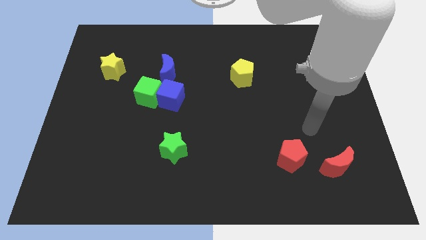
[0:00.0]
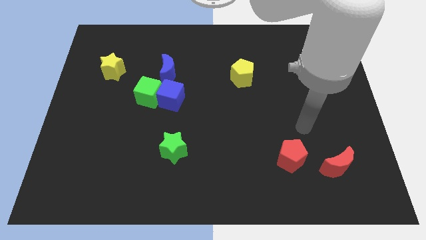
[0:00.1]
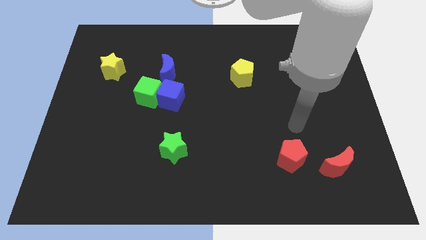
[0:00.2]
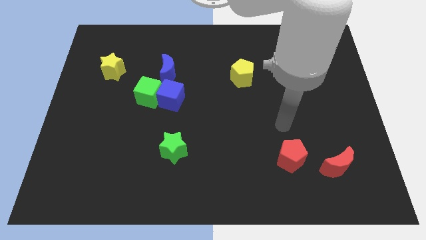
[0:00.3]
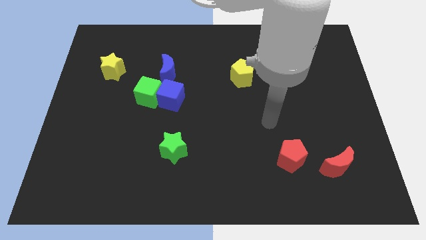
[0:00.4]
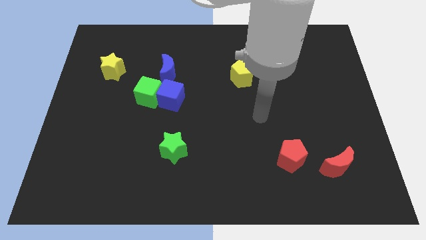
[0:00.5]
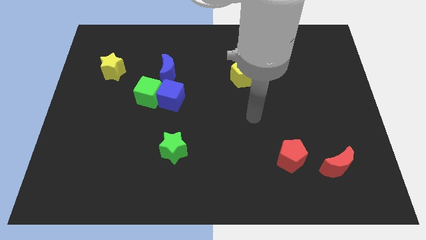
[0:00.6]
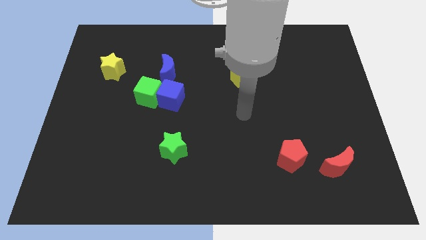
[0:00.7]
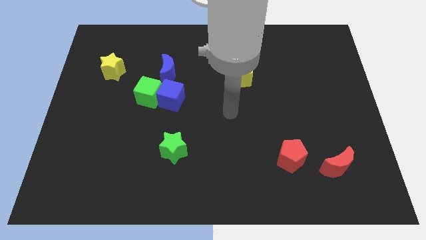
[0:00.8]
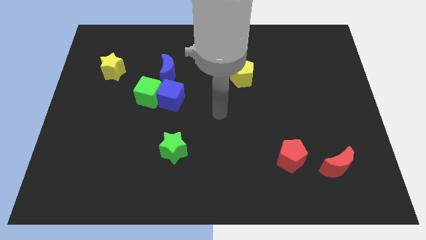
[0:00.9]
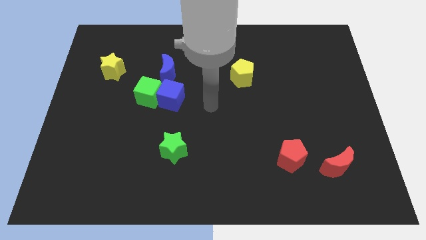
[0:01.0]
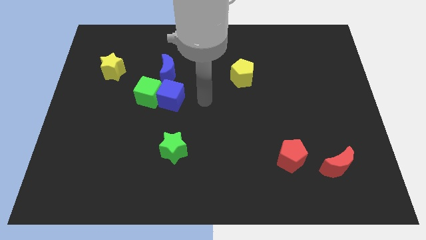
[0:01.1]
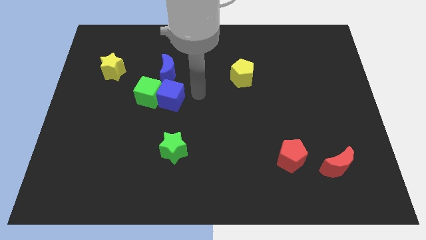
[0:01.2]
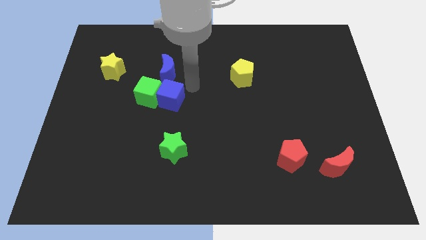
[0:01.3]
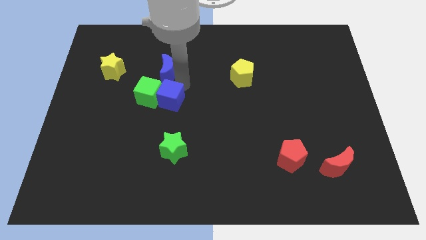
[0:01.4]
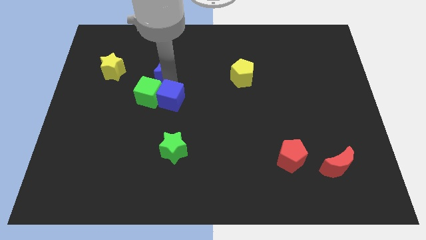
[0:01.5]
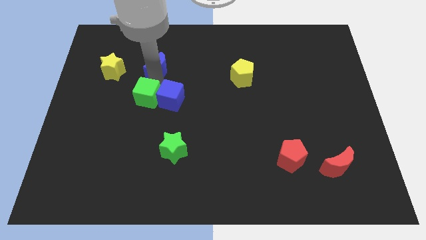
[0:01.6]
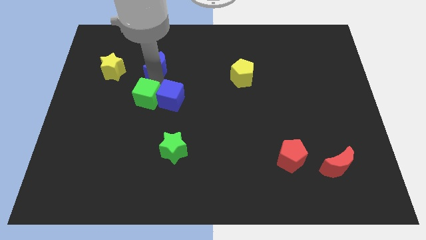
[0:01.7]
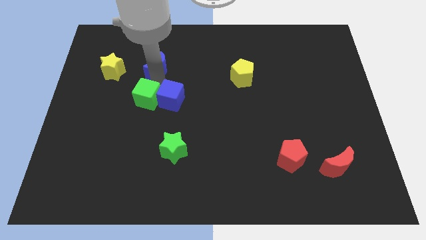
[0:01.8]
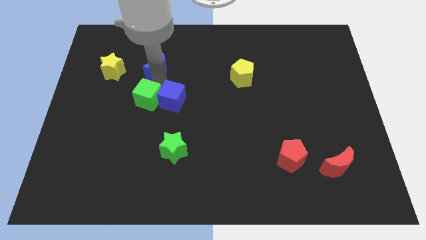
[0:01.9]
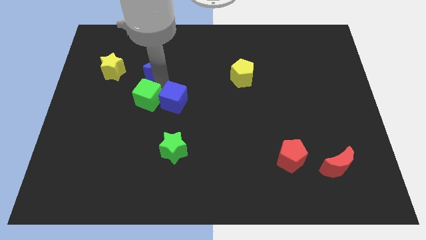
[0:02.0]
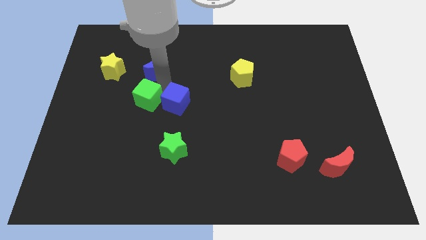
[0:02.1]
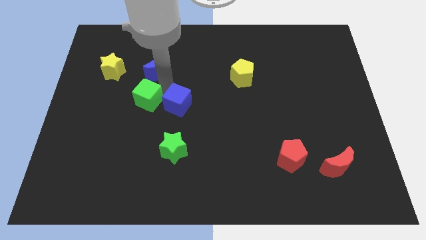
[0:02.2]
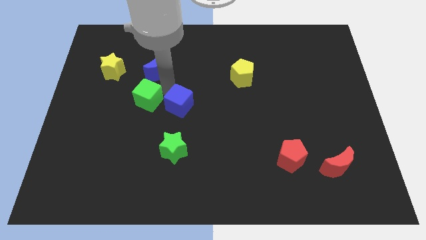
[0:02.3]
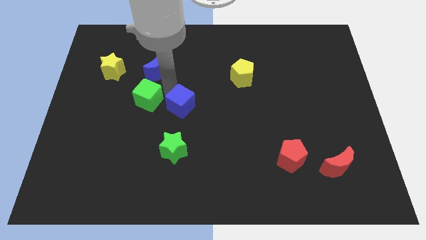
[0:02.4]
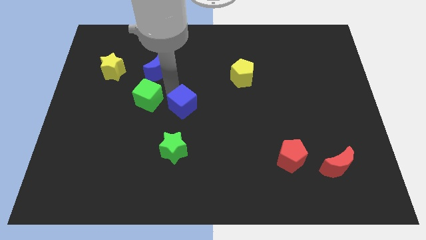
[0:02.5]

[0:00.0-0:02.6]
pull the blue cube apart from the green cube and blue moon

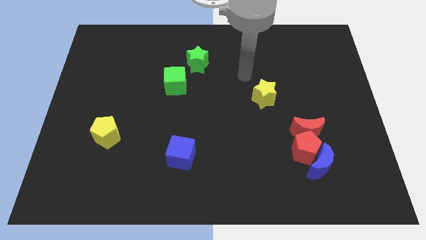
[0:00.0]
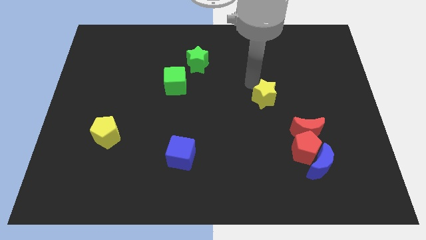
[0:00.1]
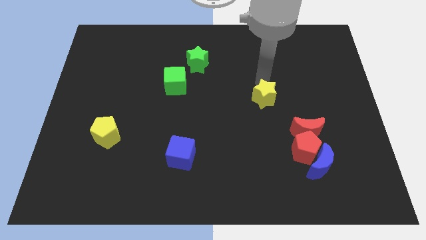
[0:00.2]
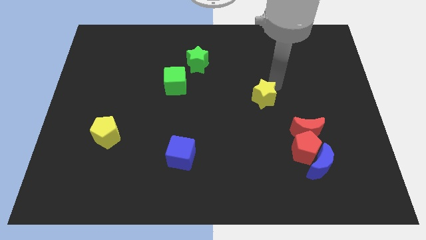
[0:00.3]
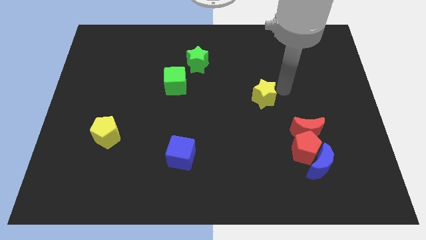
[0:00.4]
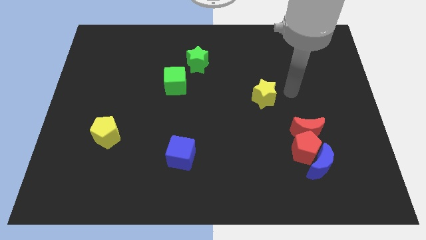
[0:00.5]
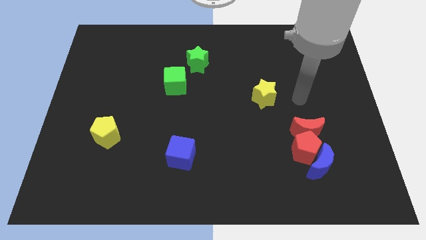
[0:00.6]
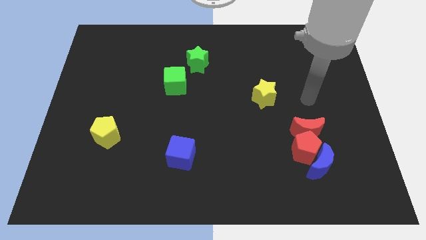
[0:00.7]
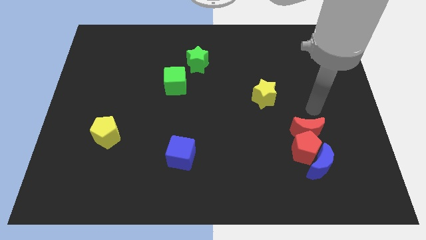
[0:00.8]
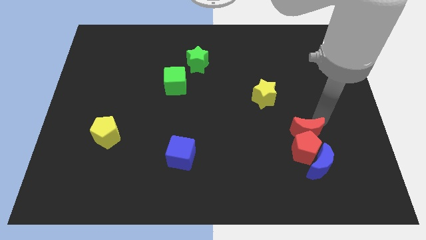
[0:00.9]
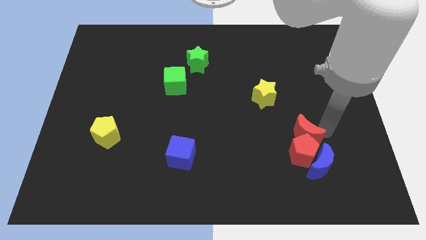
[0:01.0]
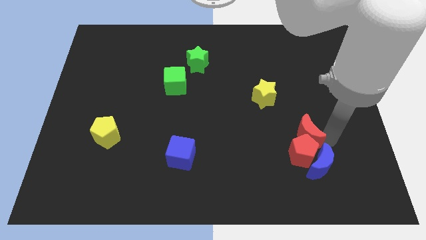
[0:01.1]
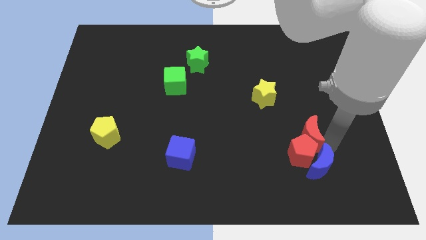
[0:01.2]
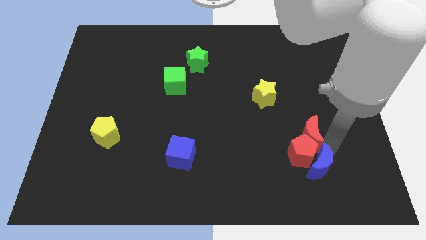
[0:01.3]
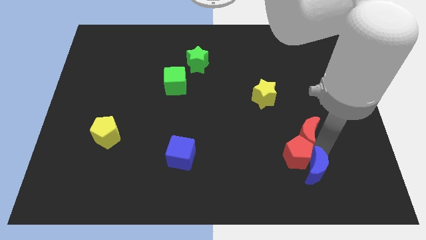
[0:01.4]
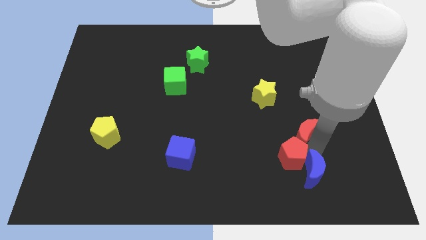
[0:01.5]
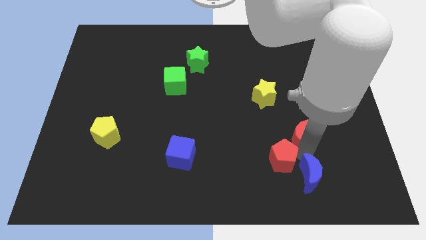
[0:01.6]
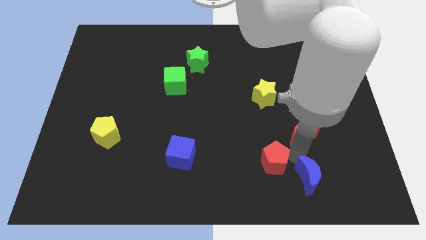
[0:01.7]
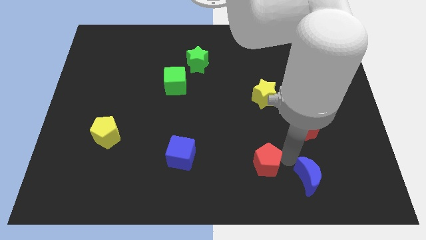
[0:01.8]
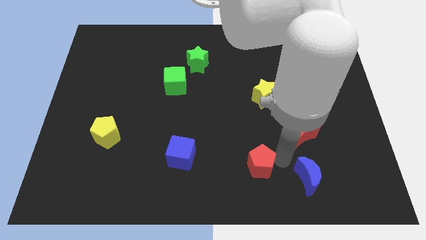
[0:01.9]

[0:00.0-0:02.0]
separate the red pentagon from the blue moon and red moon

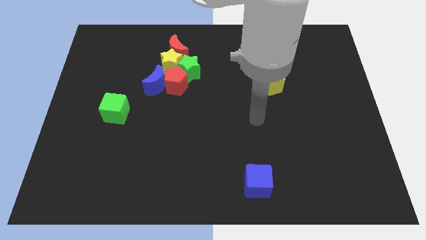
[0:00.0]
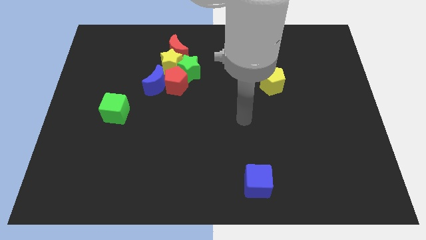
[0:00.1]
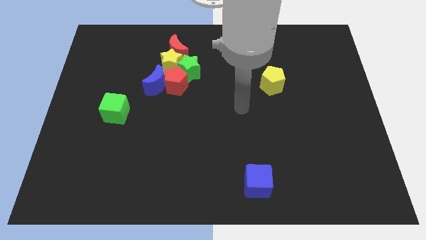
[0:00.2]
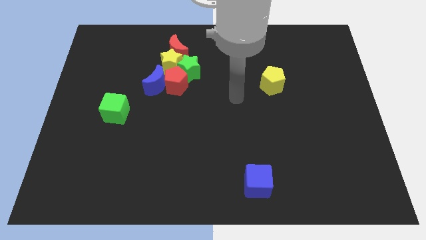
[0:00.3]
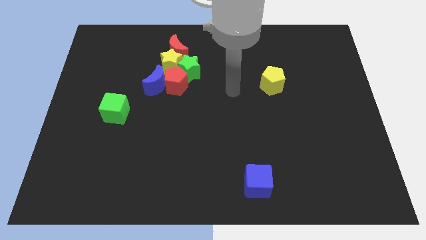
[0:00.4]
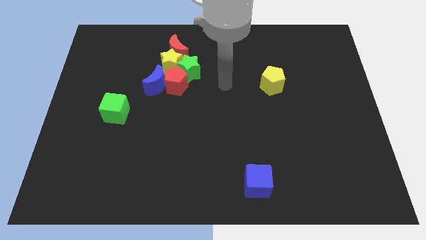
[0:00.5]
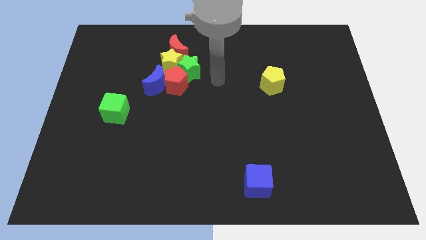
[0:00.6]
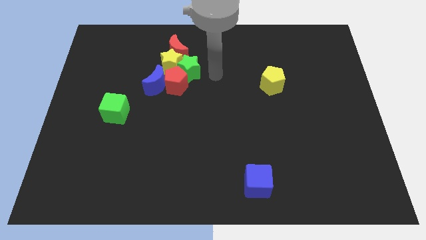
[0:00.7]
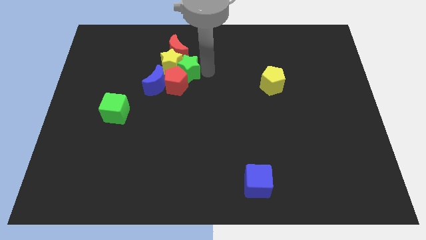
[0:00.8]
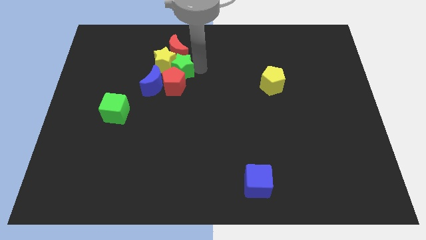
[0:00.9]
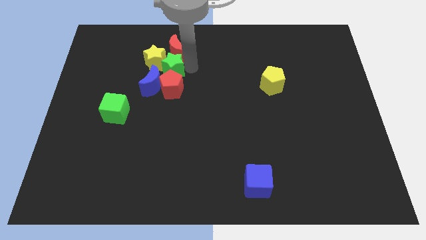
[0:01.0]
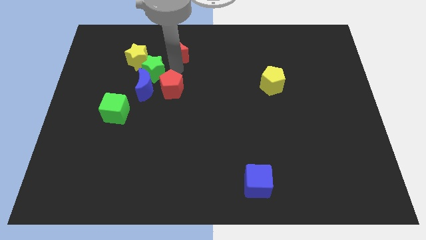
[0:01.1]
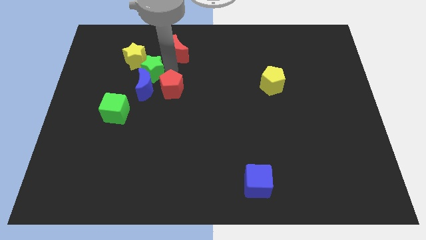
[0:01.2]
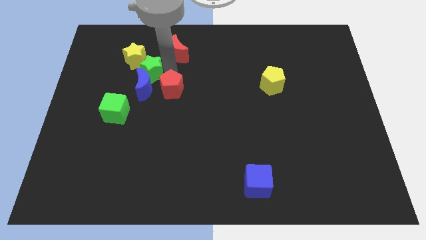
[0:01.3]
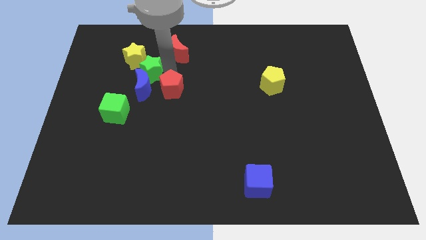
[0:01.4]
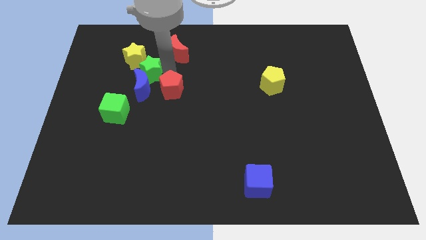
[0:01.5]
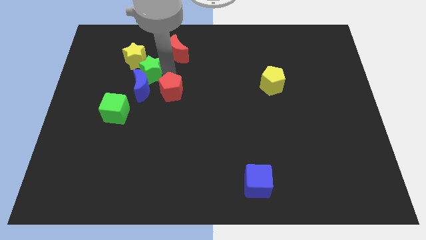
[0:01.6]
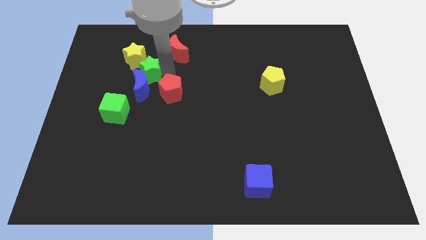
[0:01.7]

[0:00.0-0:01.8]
pull the red pentagon apart from the group of blocks

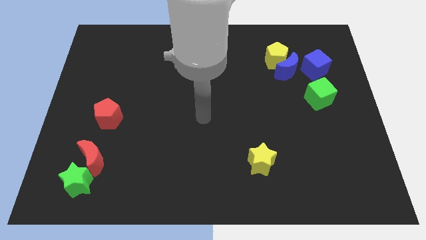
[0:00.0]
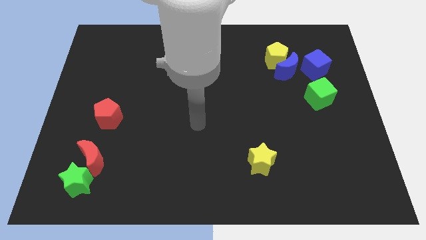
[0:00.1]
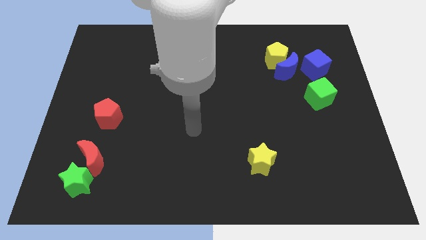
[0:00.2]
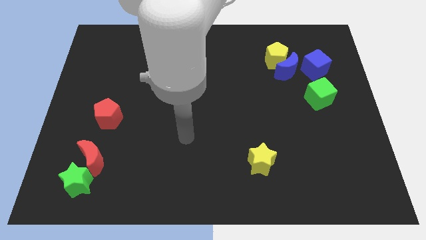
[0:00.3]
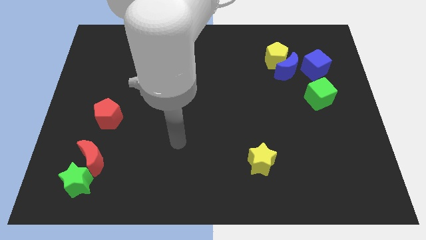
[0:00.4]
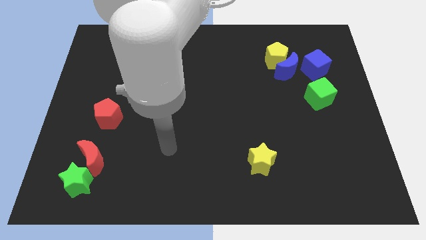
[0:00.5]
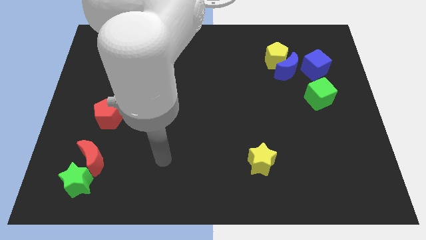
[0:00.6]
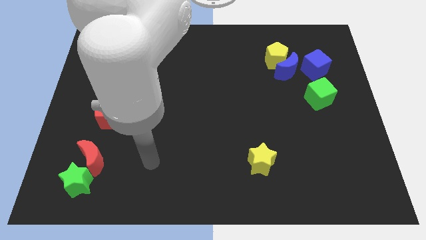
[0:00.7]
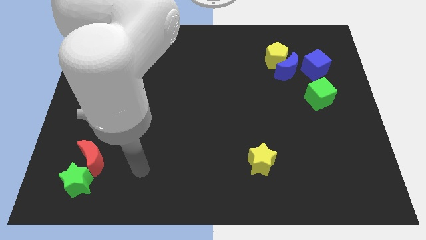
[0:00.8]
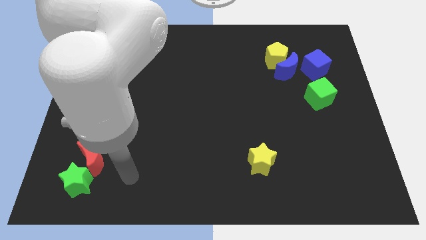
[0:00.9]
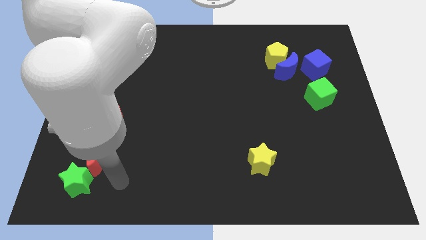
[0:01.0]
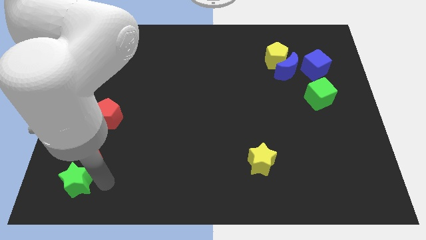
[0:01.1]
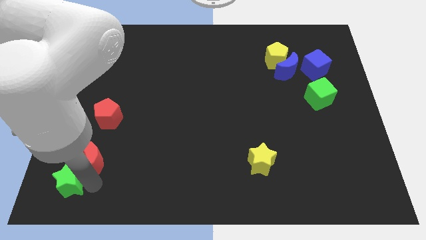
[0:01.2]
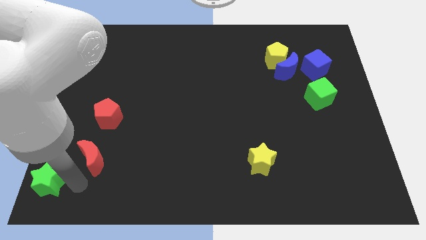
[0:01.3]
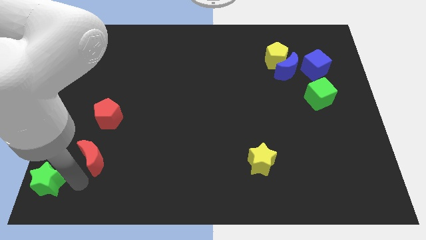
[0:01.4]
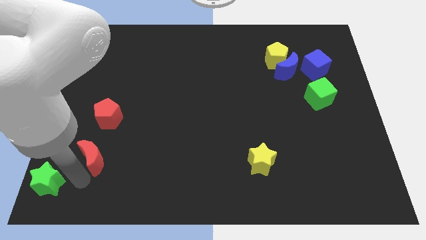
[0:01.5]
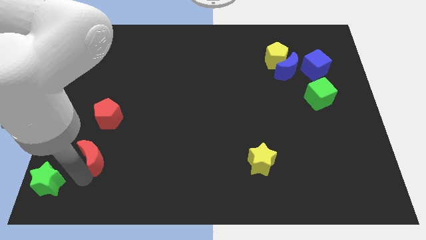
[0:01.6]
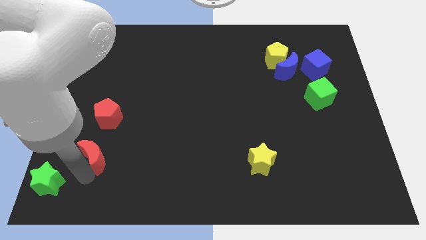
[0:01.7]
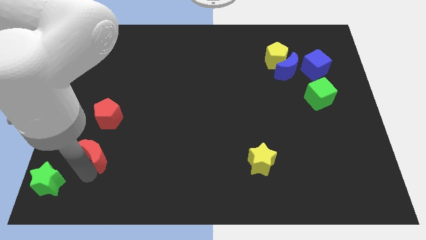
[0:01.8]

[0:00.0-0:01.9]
move the red moon away from the green star

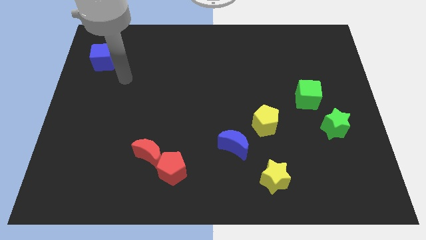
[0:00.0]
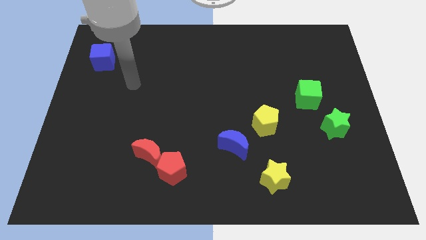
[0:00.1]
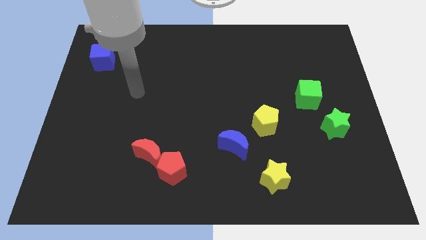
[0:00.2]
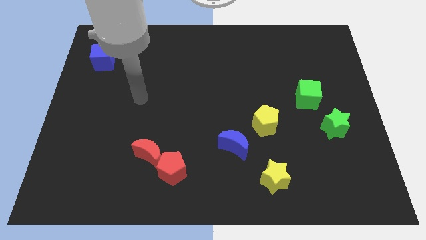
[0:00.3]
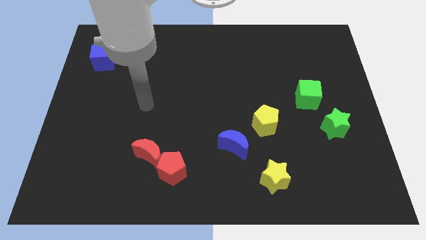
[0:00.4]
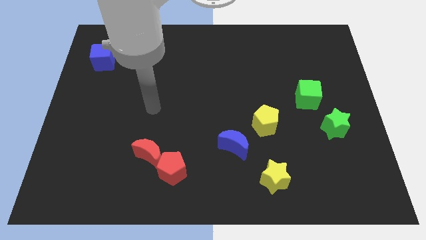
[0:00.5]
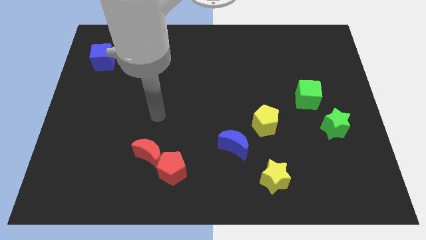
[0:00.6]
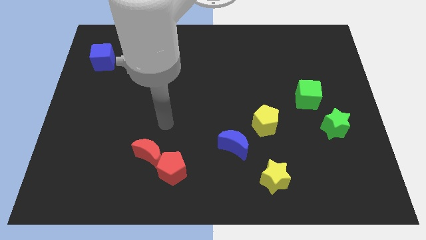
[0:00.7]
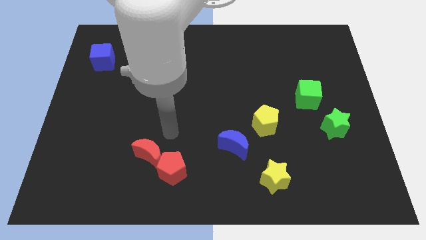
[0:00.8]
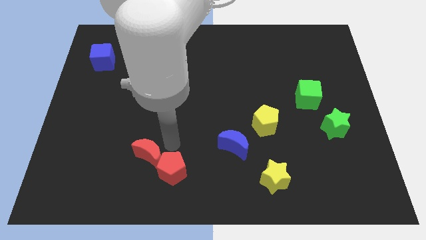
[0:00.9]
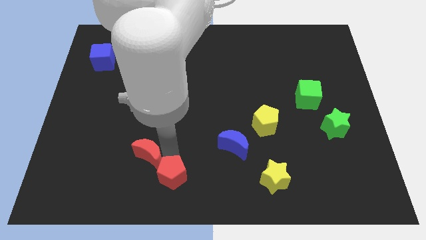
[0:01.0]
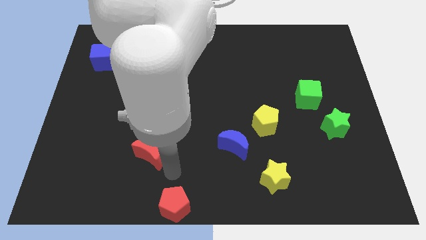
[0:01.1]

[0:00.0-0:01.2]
pull the red moon apart from the red pentagon
